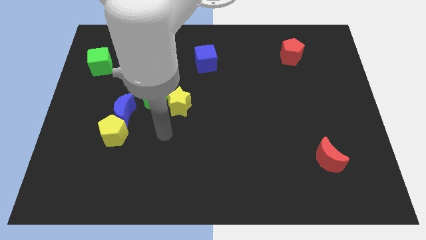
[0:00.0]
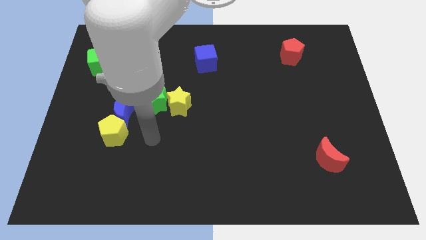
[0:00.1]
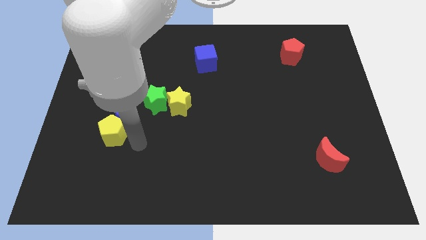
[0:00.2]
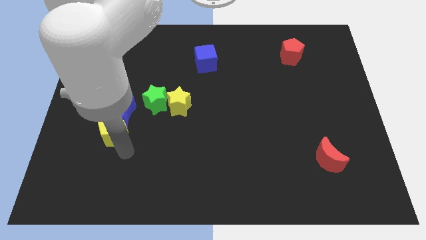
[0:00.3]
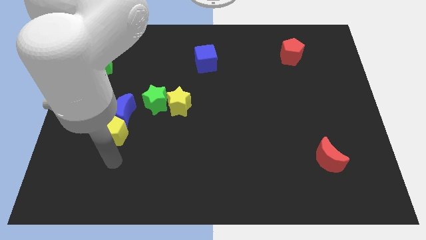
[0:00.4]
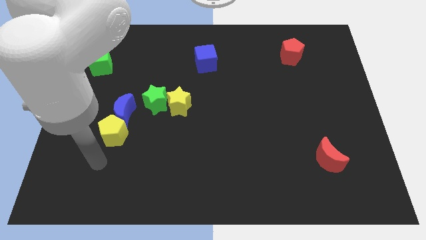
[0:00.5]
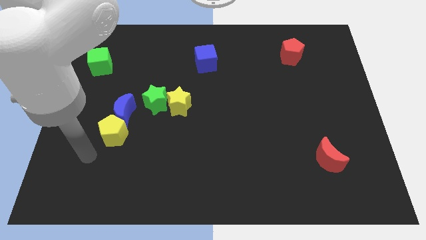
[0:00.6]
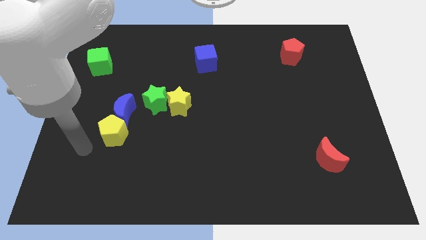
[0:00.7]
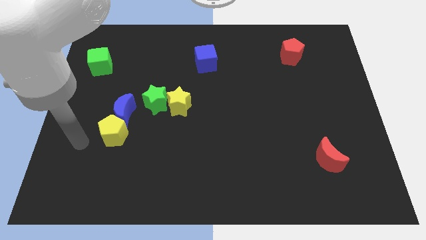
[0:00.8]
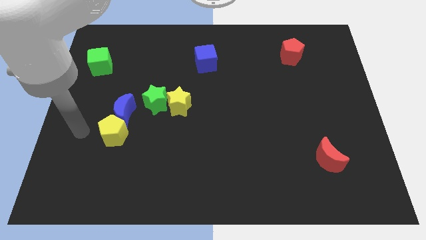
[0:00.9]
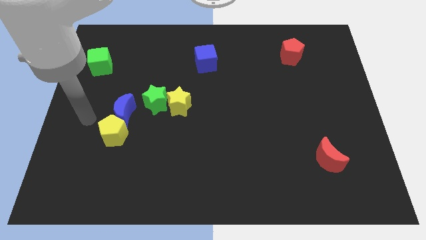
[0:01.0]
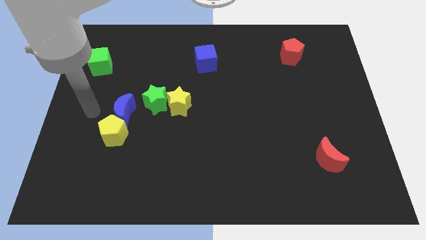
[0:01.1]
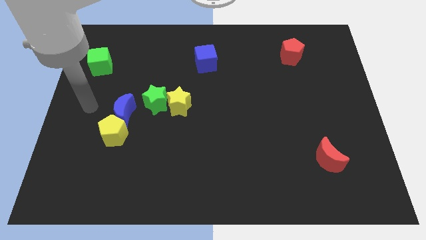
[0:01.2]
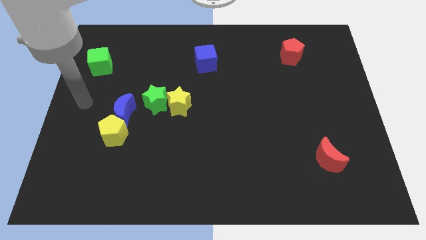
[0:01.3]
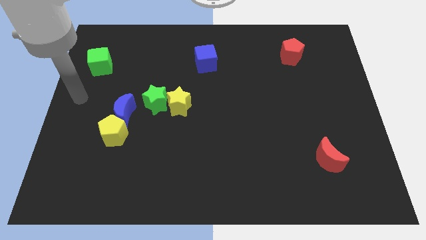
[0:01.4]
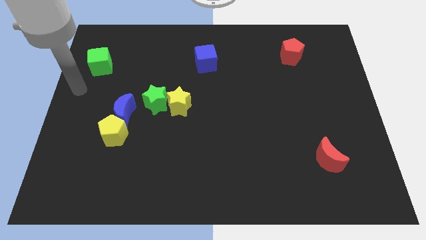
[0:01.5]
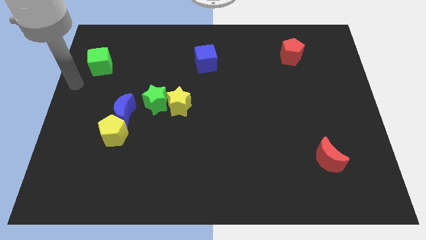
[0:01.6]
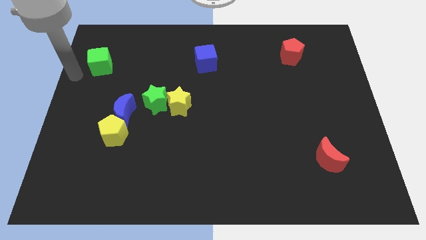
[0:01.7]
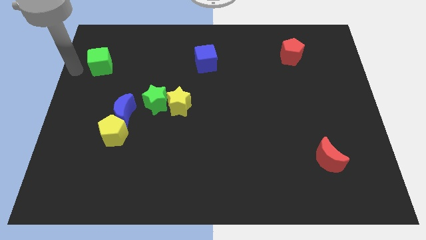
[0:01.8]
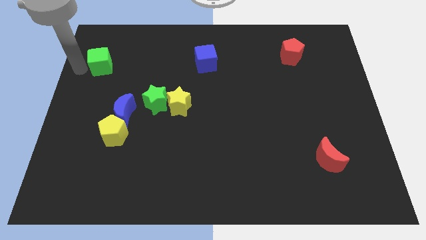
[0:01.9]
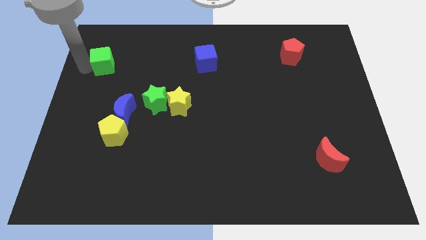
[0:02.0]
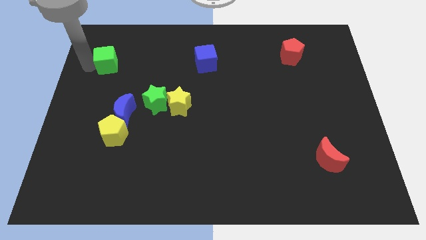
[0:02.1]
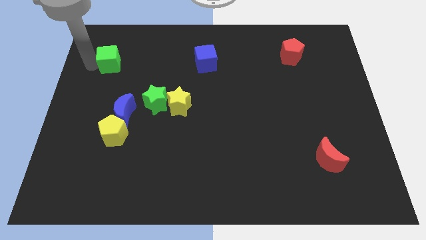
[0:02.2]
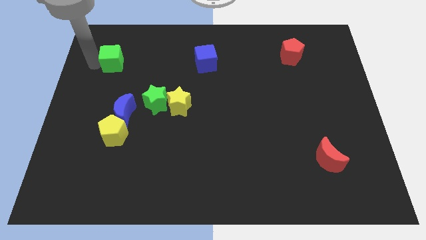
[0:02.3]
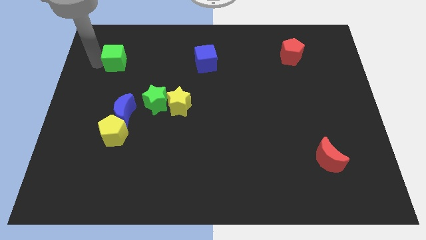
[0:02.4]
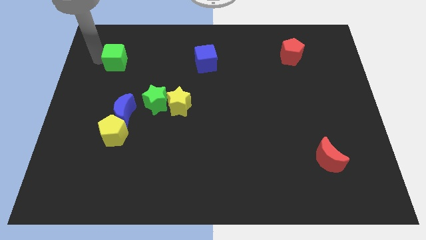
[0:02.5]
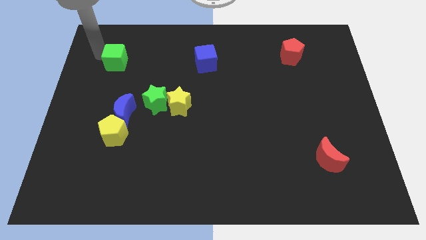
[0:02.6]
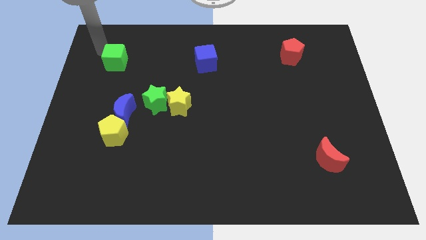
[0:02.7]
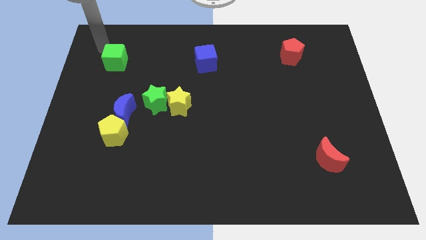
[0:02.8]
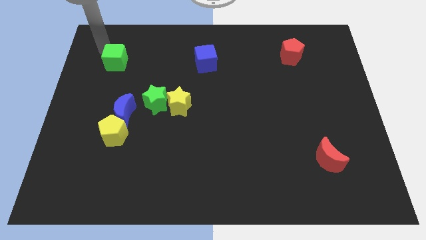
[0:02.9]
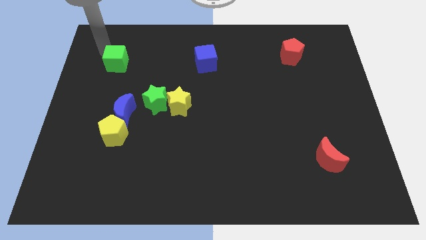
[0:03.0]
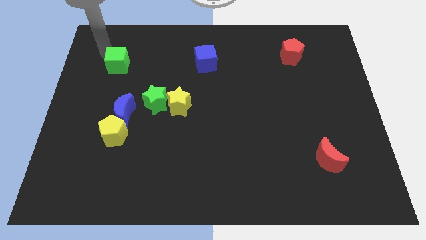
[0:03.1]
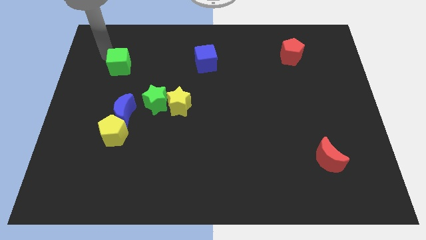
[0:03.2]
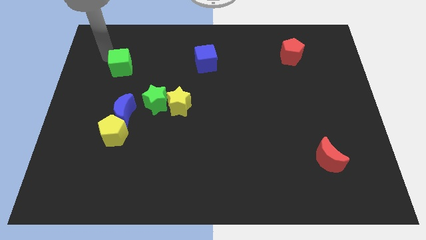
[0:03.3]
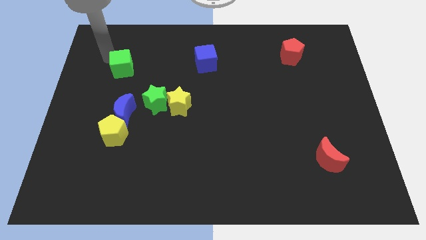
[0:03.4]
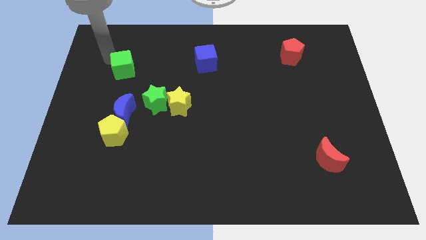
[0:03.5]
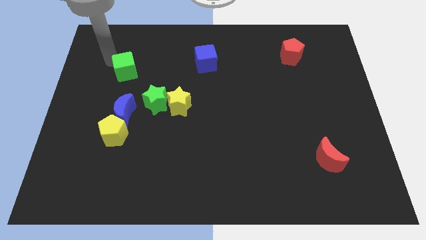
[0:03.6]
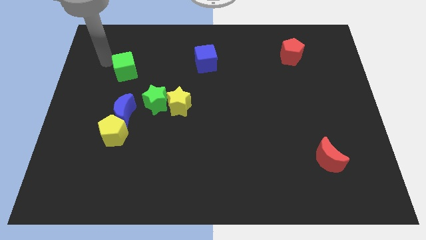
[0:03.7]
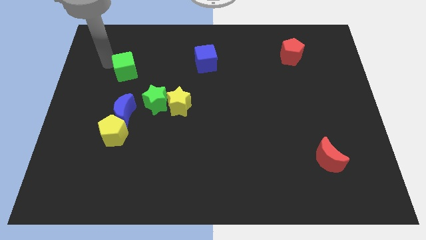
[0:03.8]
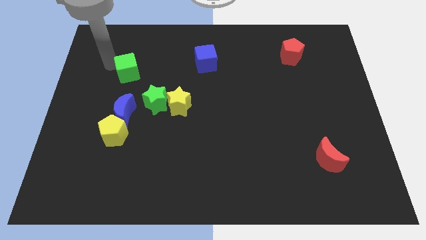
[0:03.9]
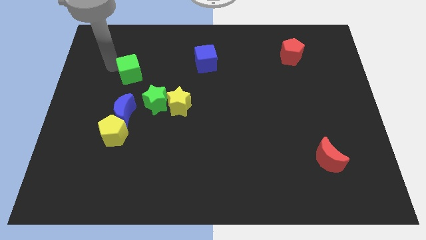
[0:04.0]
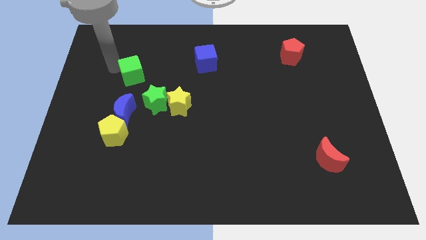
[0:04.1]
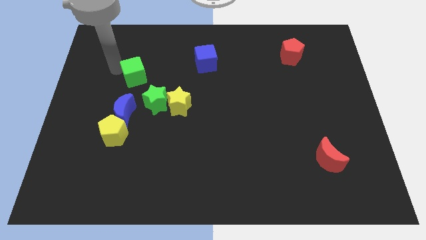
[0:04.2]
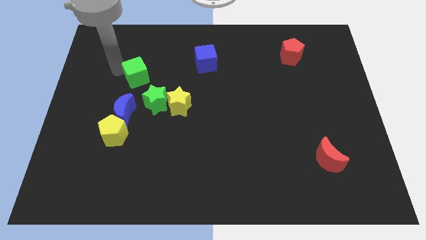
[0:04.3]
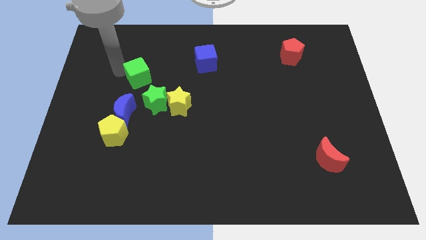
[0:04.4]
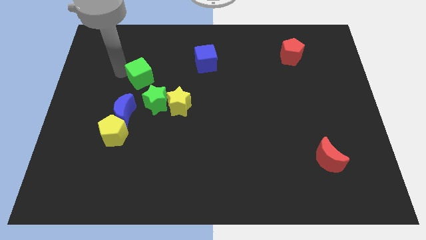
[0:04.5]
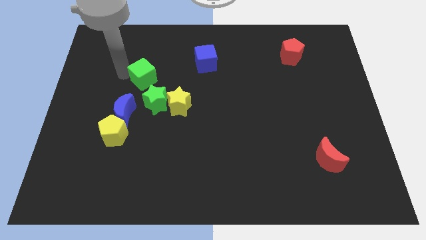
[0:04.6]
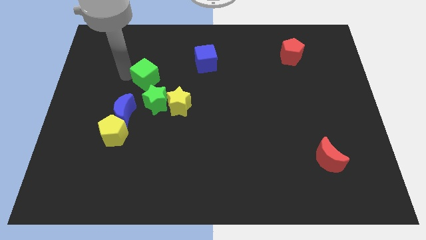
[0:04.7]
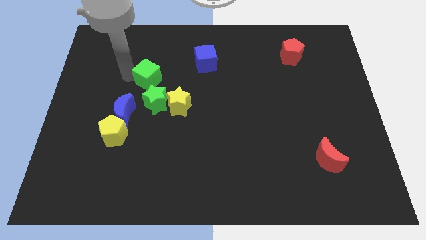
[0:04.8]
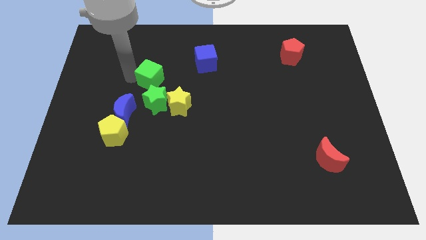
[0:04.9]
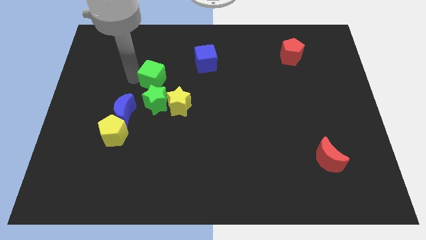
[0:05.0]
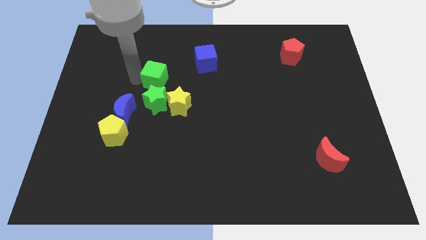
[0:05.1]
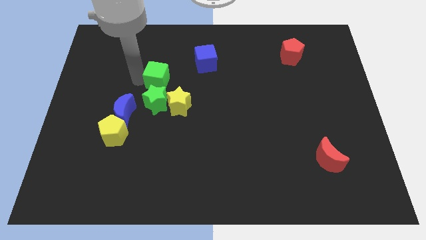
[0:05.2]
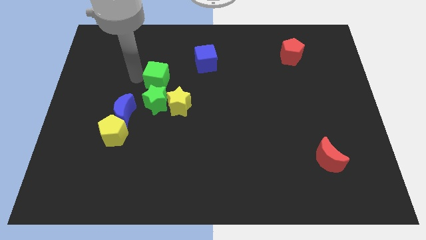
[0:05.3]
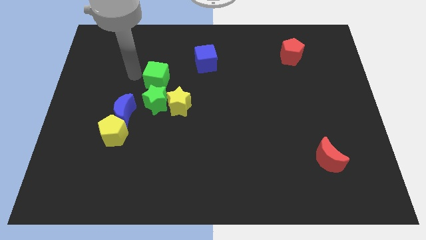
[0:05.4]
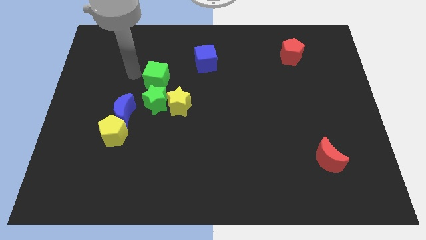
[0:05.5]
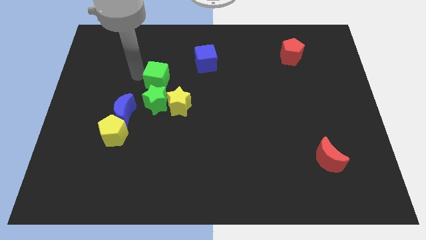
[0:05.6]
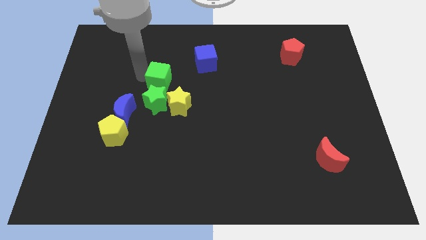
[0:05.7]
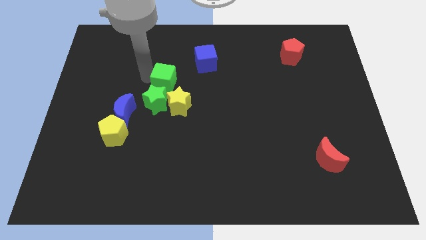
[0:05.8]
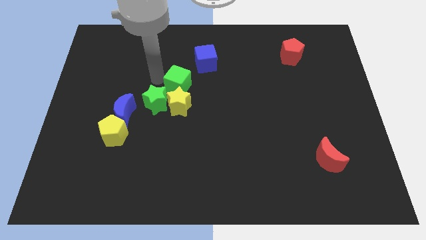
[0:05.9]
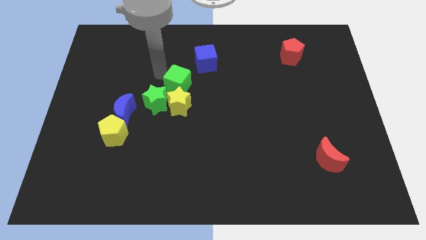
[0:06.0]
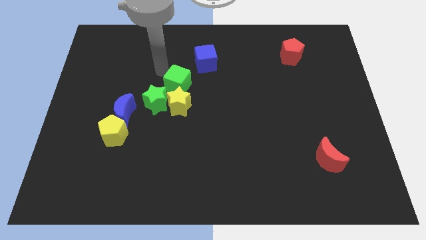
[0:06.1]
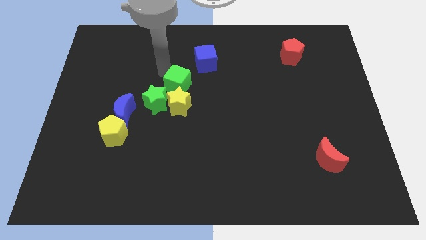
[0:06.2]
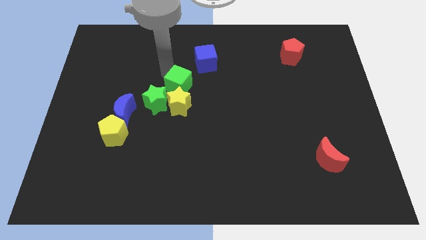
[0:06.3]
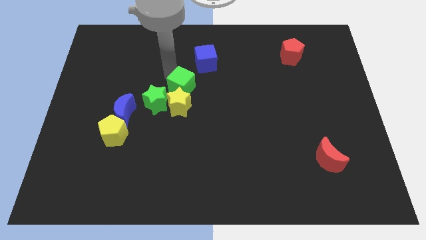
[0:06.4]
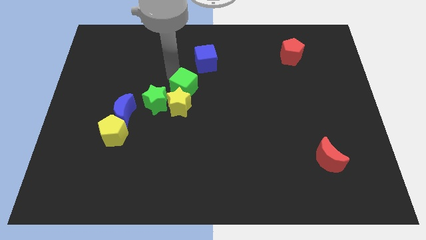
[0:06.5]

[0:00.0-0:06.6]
move the green cube just right of the green star

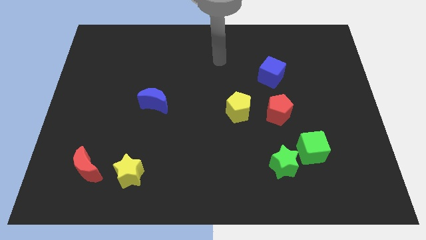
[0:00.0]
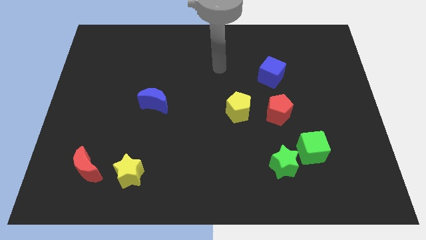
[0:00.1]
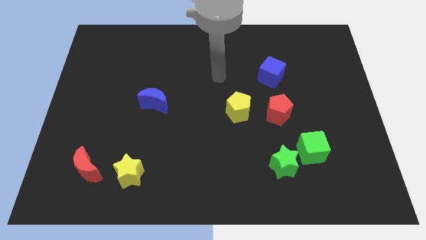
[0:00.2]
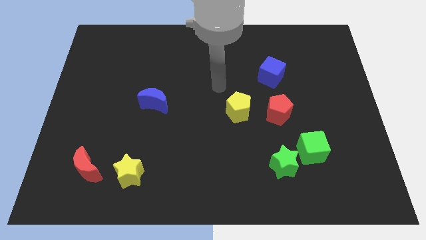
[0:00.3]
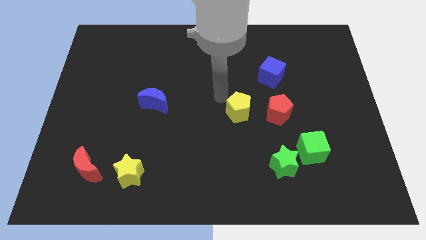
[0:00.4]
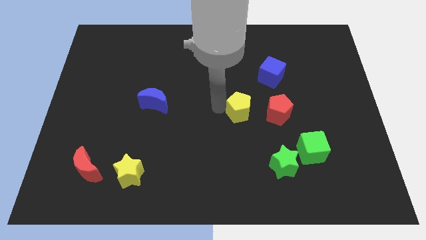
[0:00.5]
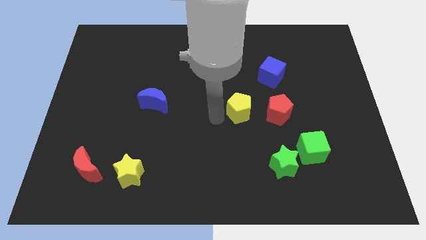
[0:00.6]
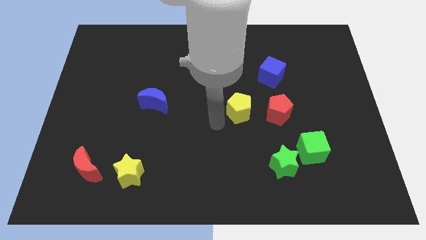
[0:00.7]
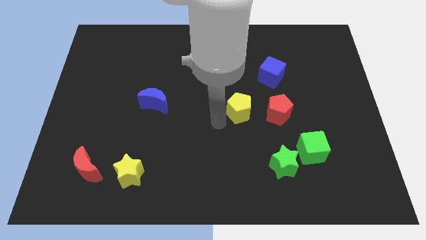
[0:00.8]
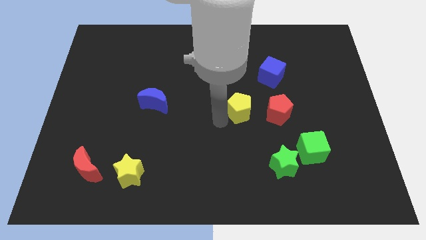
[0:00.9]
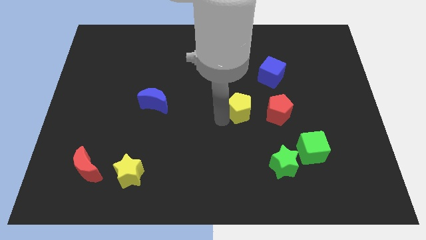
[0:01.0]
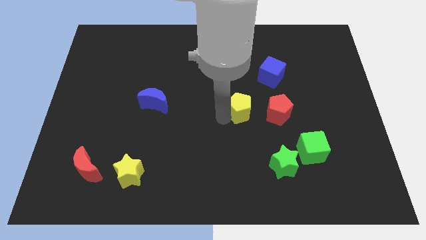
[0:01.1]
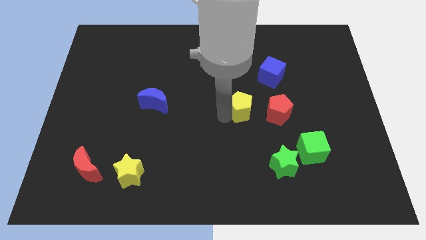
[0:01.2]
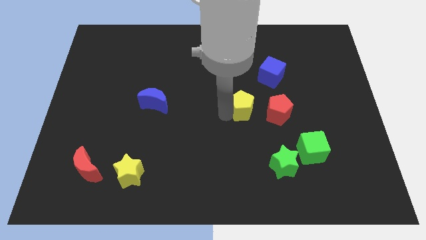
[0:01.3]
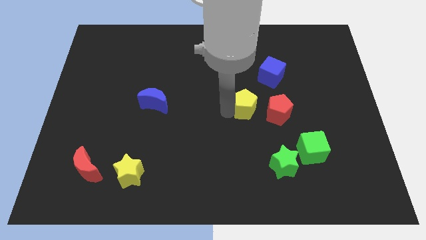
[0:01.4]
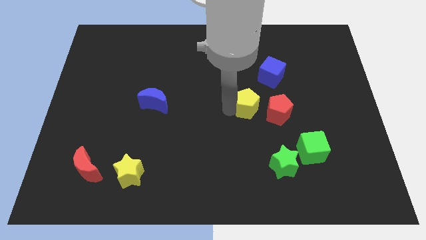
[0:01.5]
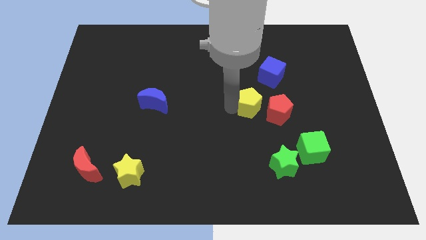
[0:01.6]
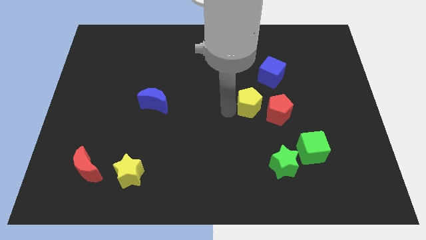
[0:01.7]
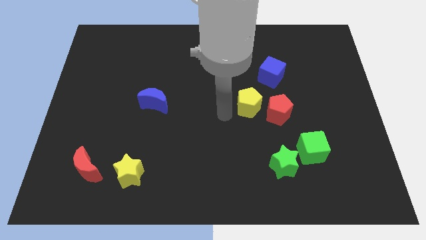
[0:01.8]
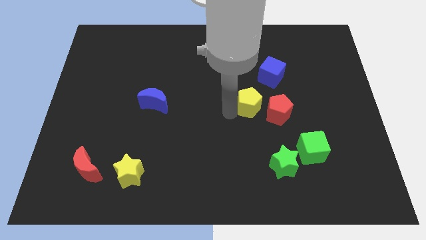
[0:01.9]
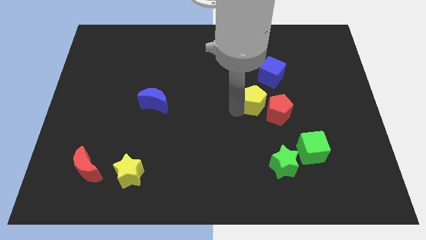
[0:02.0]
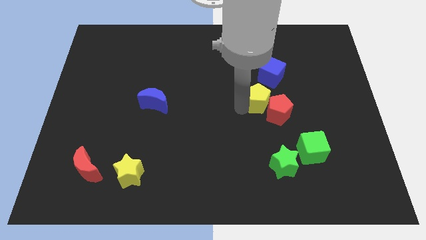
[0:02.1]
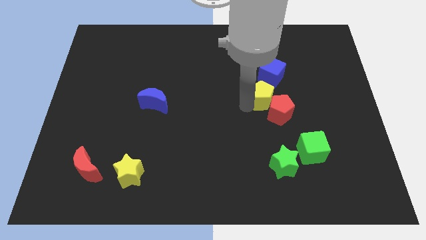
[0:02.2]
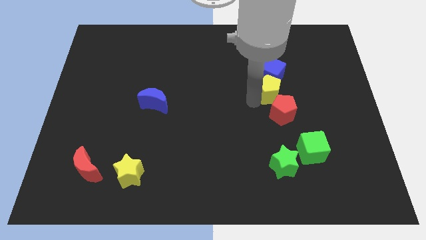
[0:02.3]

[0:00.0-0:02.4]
put the yellow pentagon to the bottom right side of the blue cube
